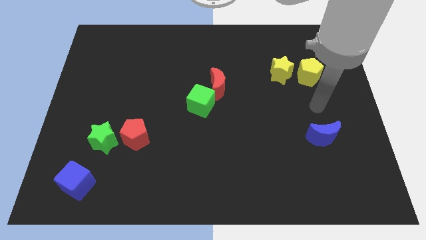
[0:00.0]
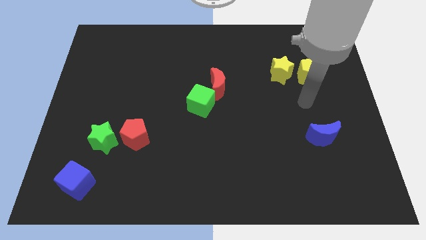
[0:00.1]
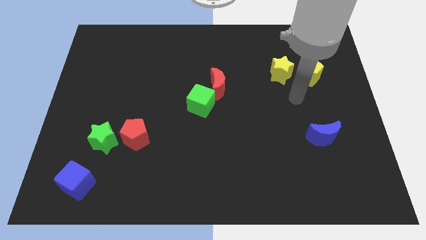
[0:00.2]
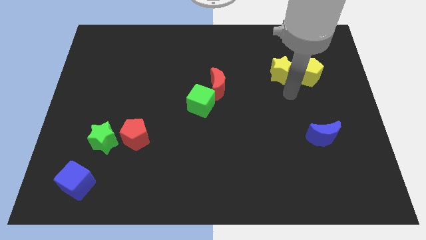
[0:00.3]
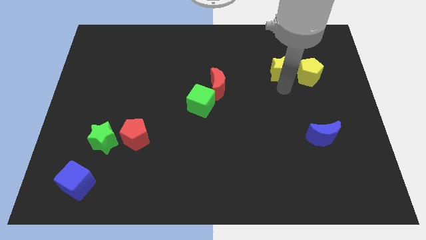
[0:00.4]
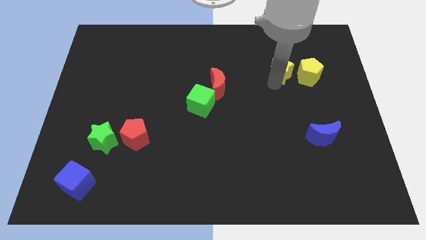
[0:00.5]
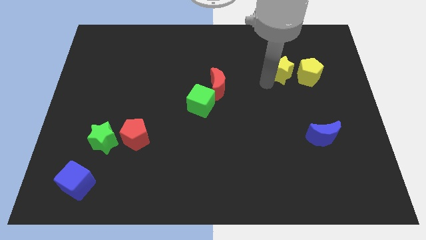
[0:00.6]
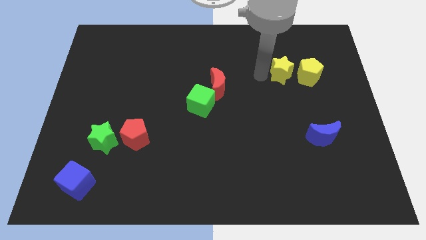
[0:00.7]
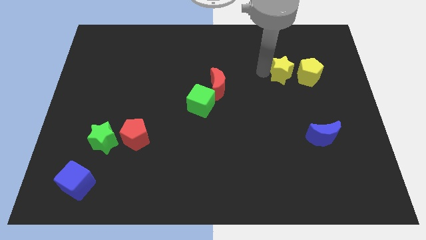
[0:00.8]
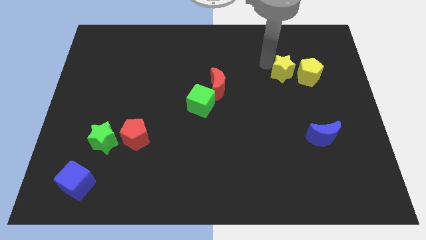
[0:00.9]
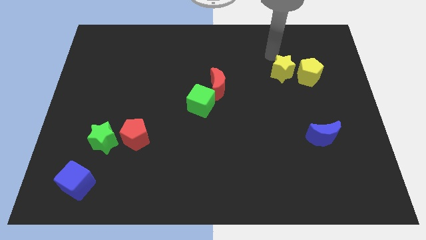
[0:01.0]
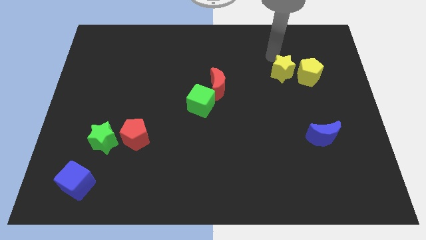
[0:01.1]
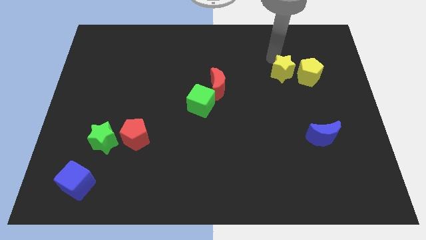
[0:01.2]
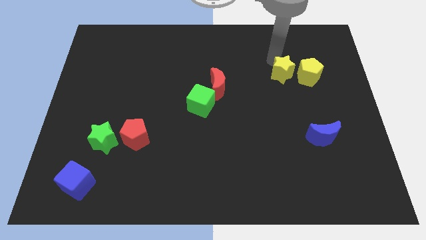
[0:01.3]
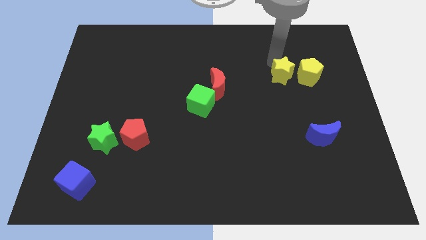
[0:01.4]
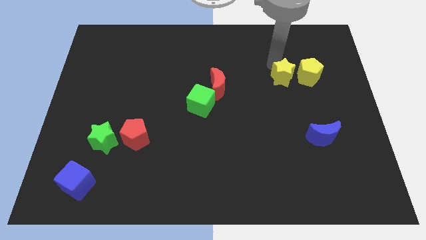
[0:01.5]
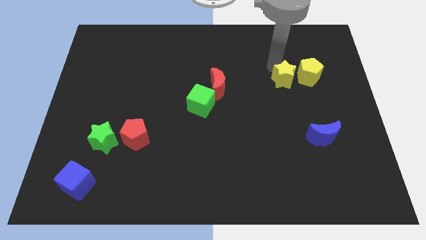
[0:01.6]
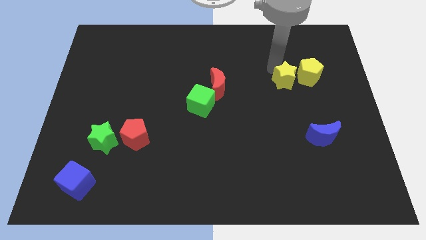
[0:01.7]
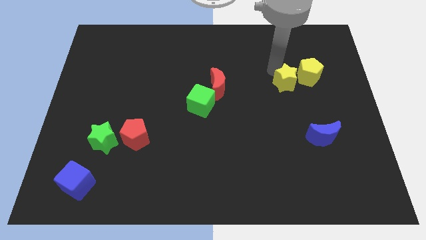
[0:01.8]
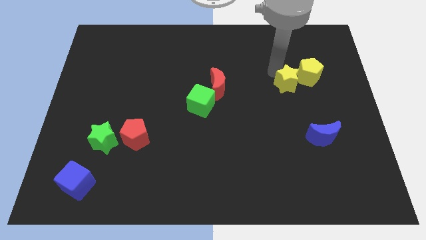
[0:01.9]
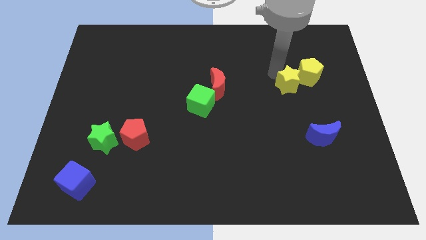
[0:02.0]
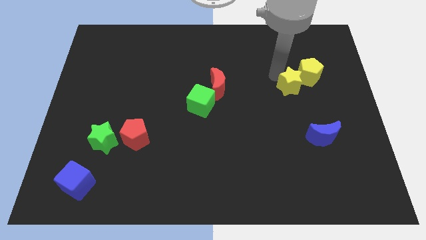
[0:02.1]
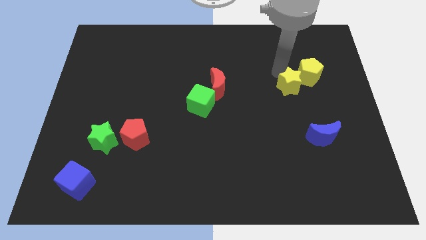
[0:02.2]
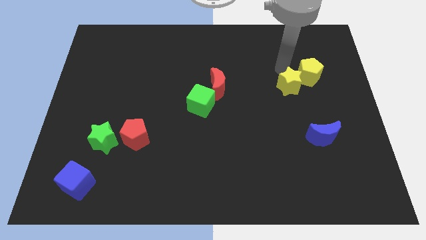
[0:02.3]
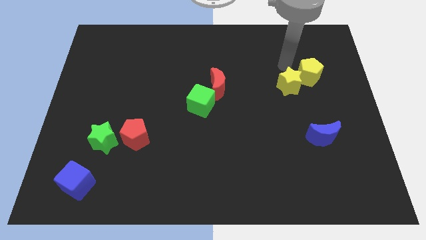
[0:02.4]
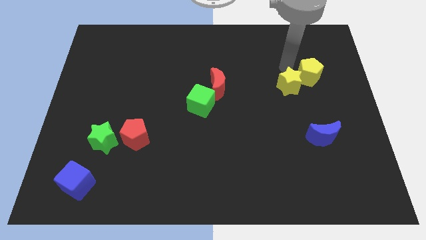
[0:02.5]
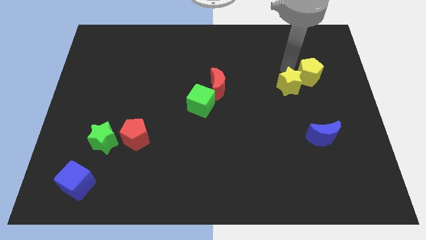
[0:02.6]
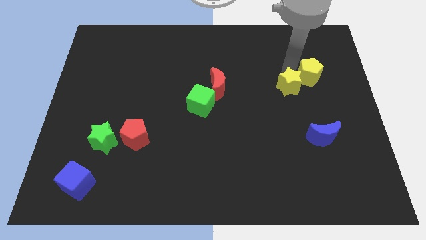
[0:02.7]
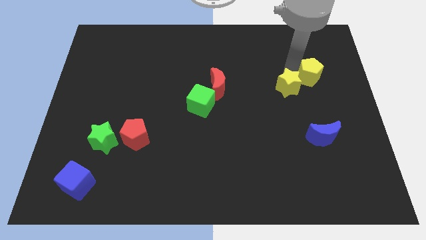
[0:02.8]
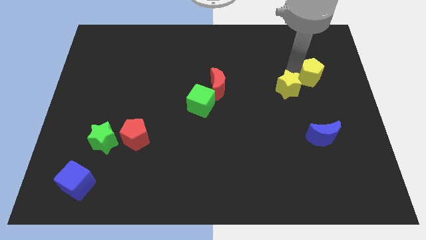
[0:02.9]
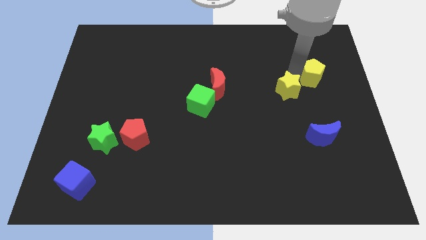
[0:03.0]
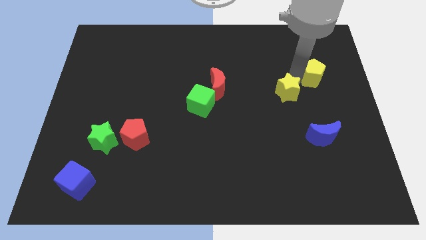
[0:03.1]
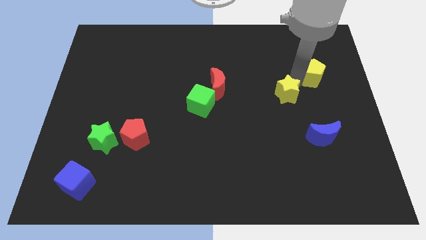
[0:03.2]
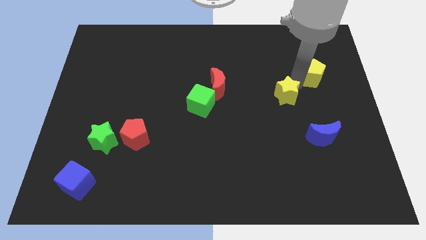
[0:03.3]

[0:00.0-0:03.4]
push the yellow star a little downwards

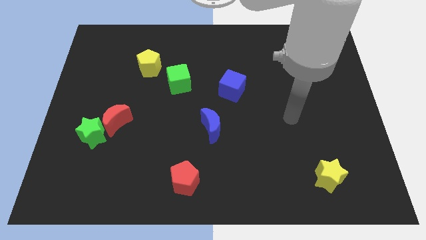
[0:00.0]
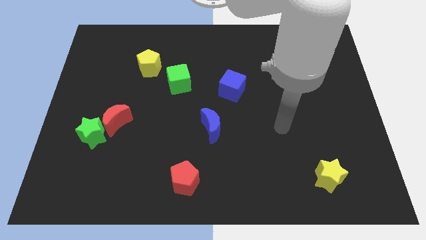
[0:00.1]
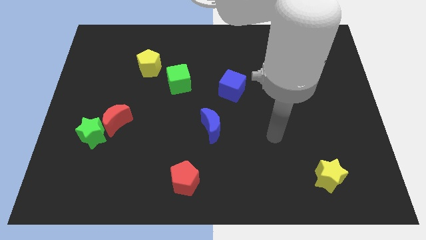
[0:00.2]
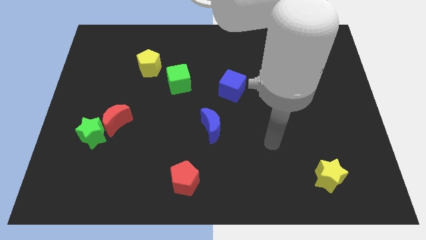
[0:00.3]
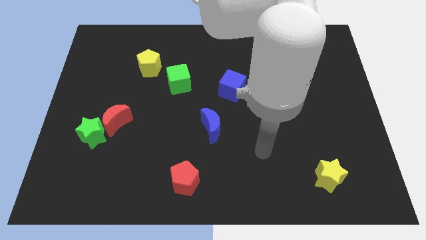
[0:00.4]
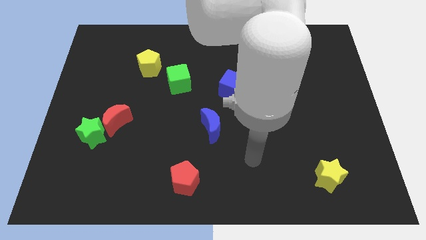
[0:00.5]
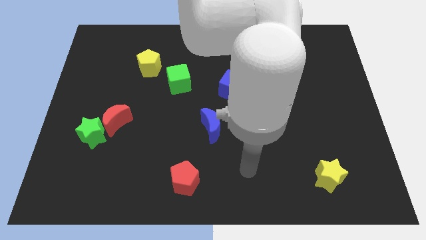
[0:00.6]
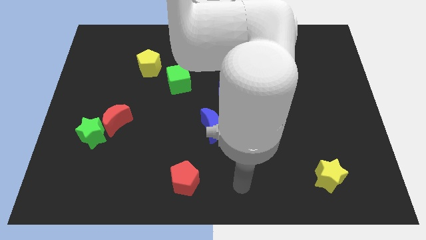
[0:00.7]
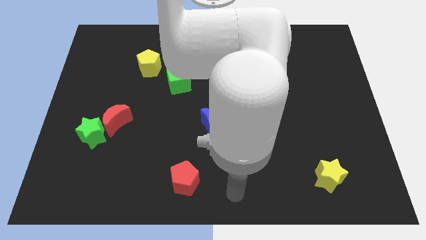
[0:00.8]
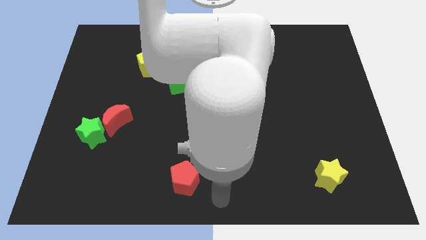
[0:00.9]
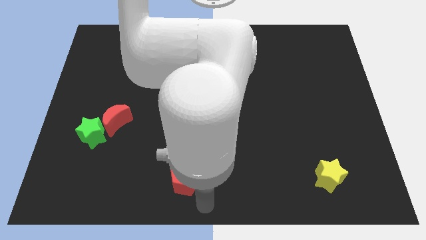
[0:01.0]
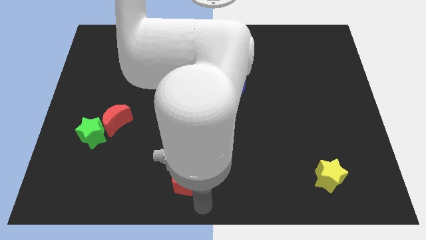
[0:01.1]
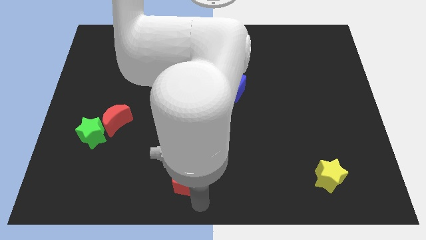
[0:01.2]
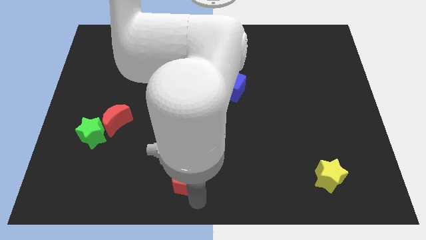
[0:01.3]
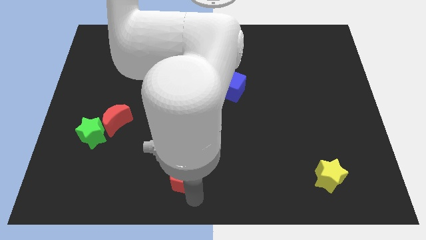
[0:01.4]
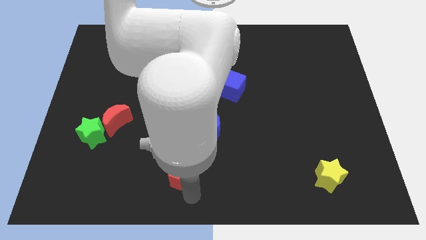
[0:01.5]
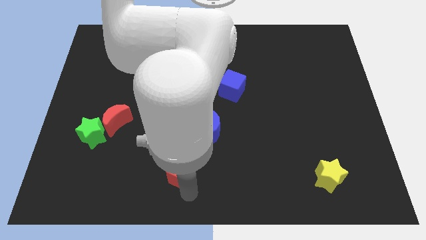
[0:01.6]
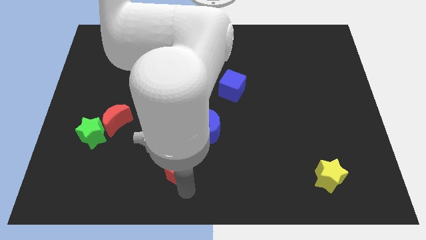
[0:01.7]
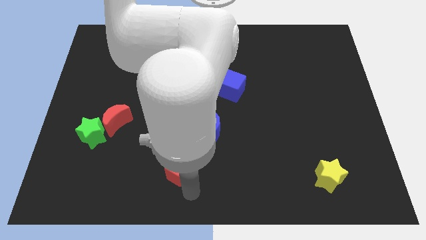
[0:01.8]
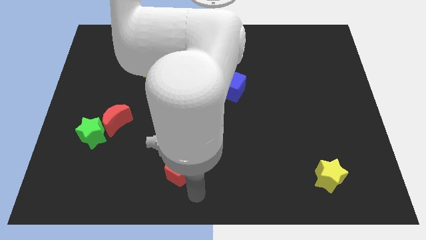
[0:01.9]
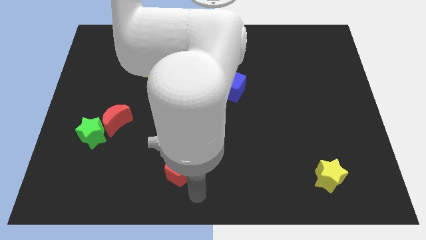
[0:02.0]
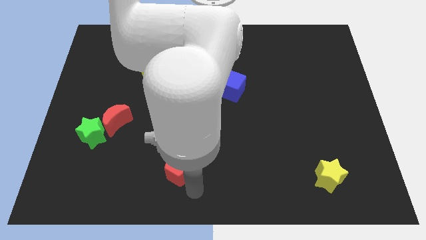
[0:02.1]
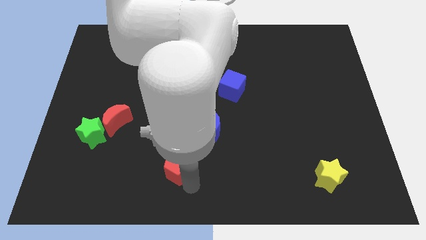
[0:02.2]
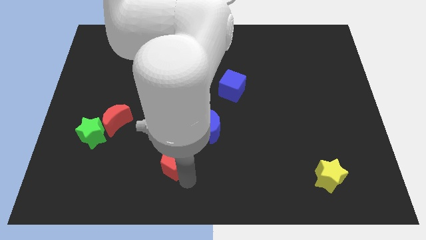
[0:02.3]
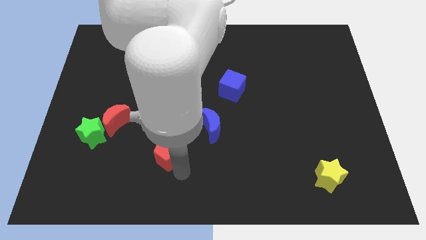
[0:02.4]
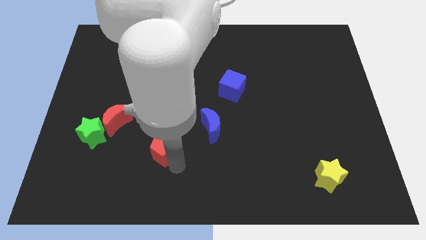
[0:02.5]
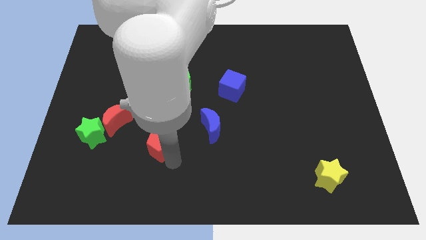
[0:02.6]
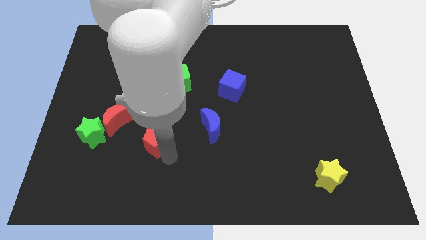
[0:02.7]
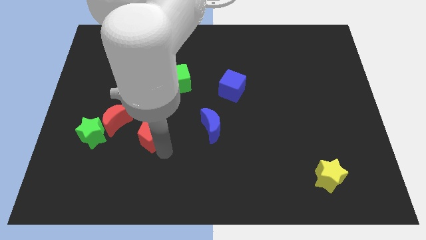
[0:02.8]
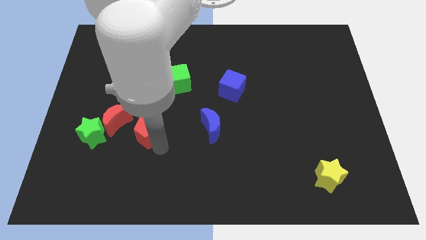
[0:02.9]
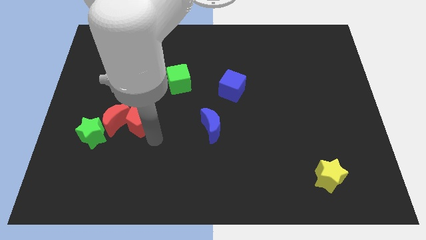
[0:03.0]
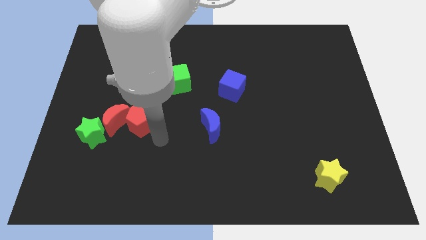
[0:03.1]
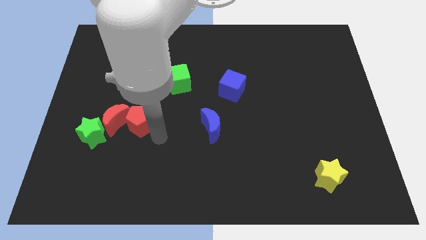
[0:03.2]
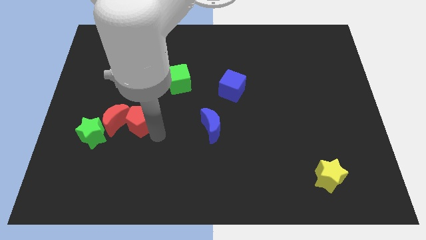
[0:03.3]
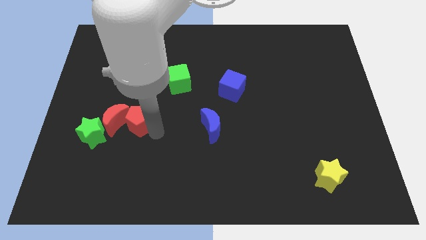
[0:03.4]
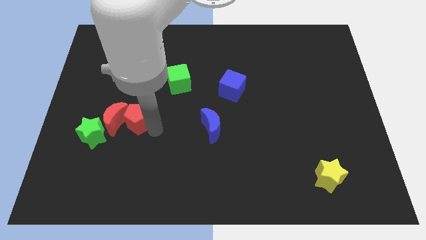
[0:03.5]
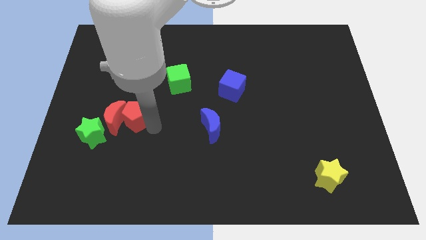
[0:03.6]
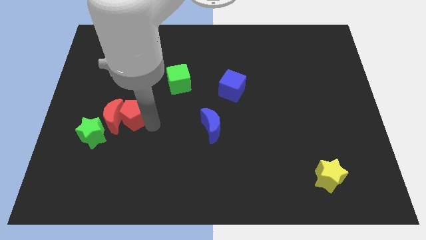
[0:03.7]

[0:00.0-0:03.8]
move the red pentagon up and then to the left

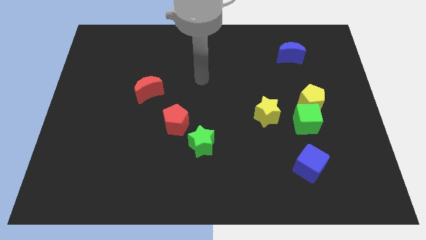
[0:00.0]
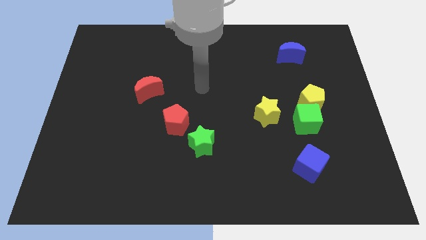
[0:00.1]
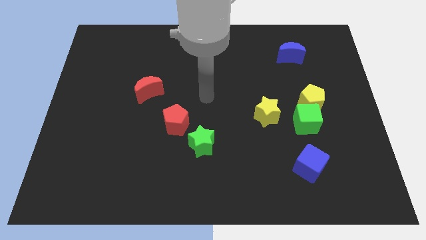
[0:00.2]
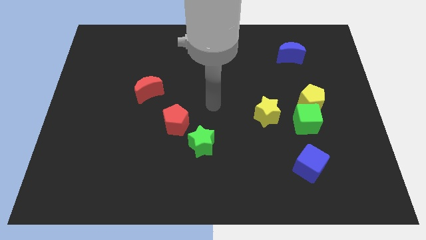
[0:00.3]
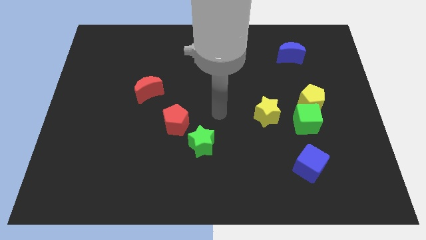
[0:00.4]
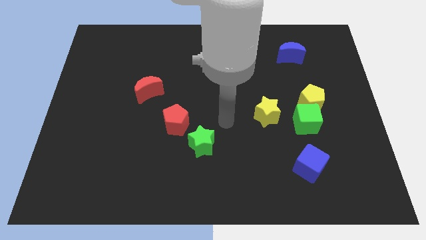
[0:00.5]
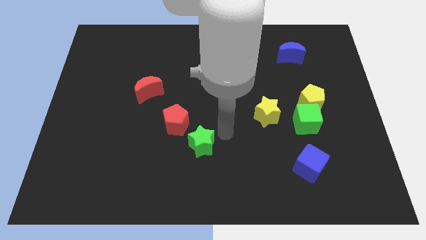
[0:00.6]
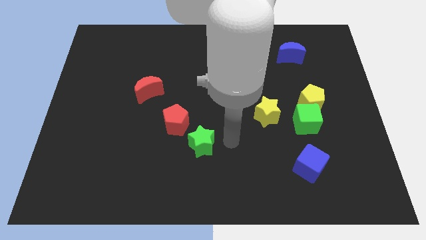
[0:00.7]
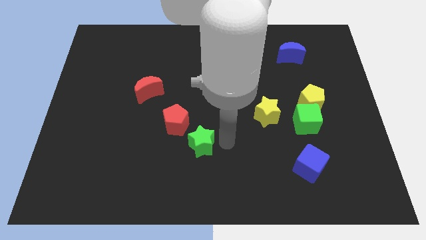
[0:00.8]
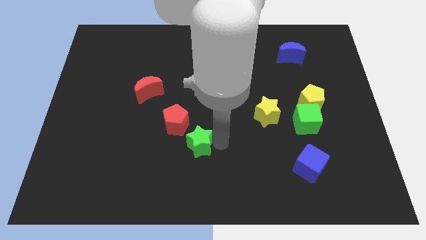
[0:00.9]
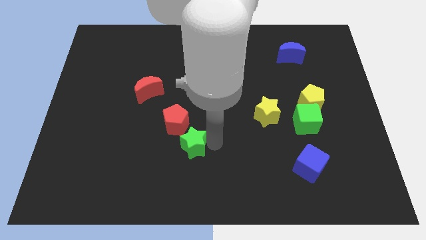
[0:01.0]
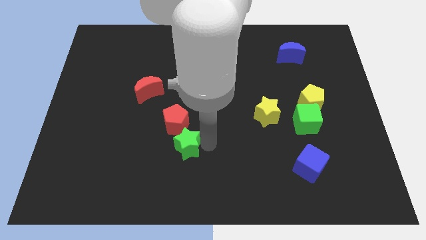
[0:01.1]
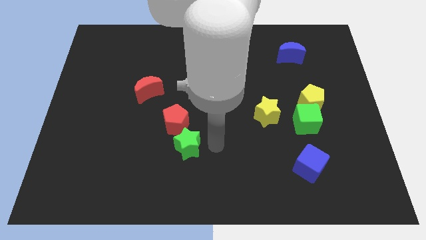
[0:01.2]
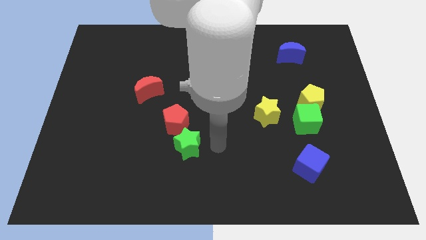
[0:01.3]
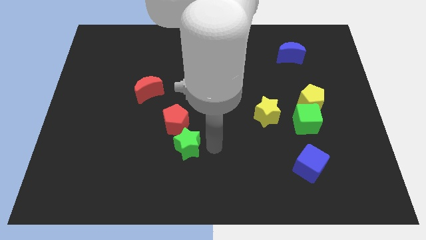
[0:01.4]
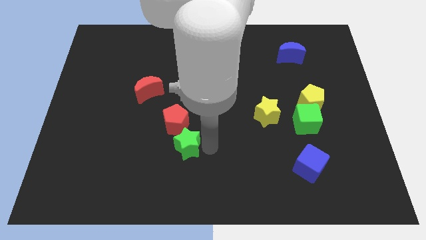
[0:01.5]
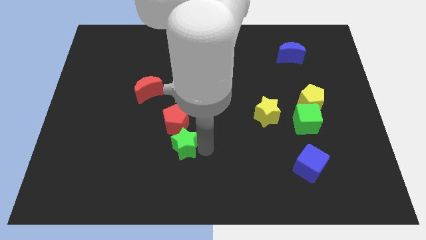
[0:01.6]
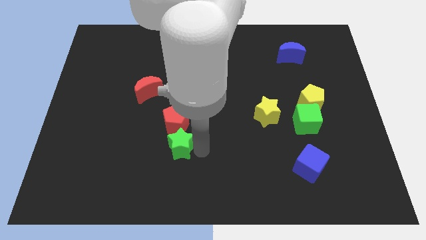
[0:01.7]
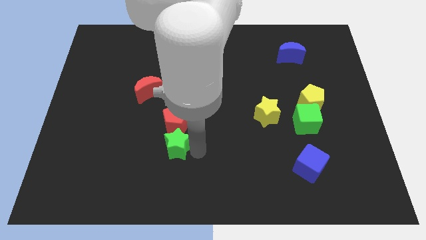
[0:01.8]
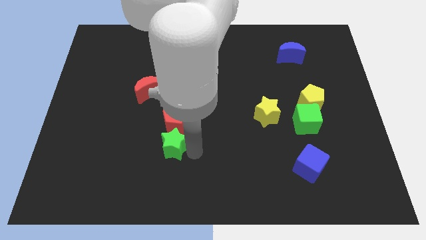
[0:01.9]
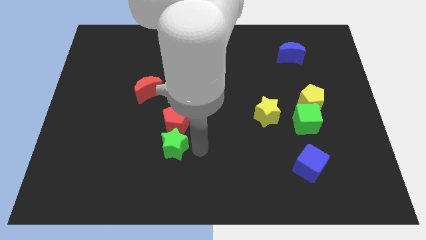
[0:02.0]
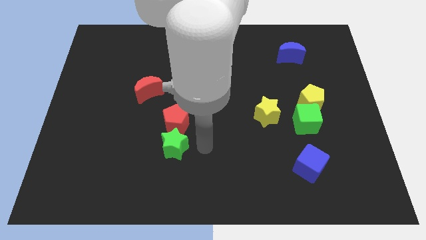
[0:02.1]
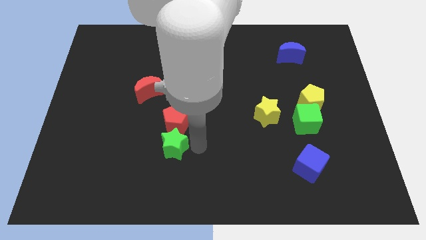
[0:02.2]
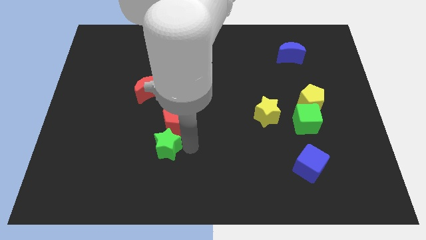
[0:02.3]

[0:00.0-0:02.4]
move the green star left slightly
